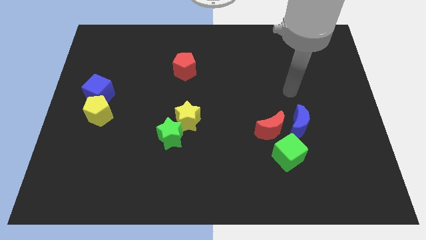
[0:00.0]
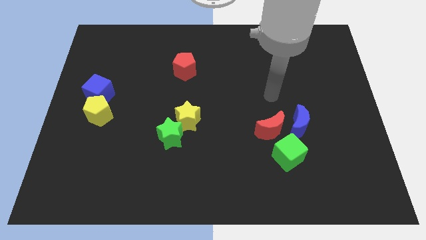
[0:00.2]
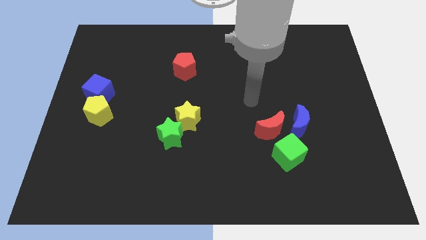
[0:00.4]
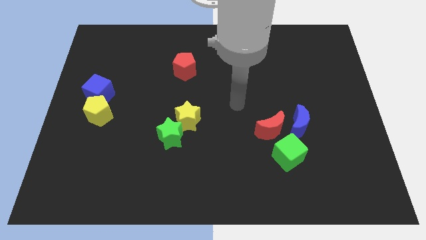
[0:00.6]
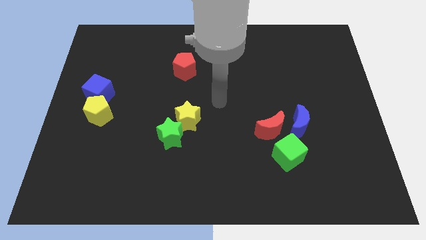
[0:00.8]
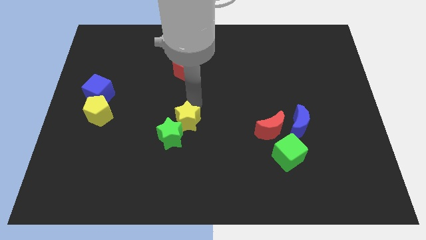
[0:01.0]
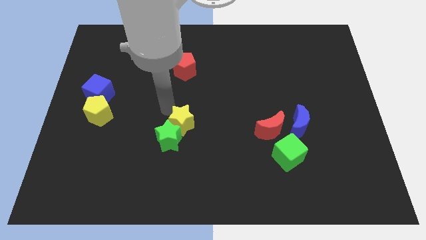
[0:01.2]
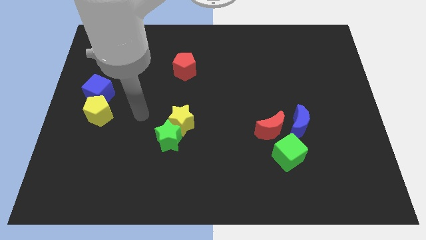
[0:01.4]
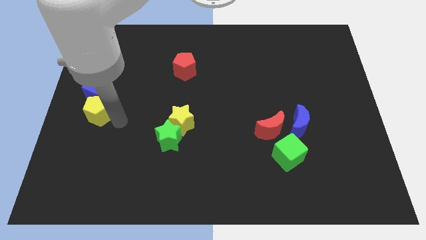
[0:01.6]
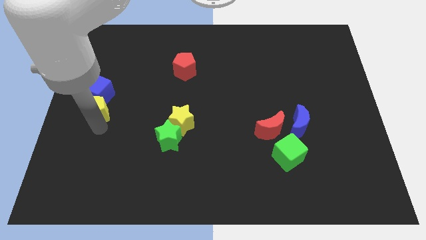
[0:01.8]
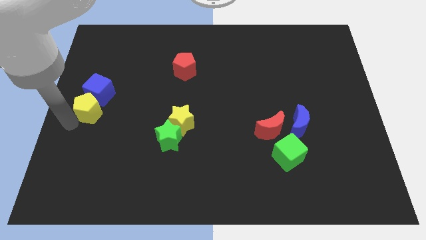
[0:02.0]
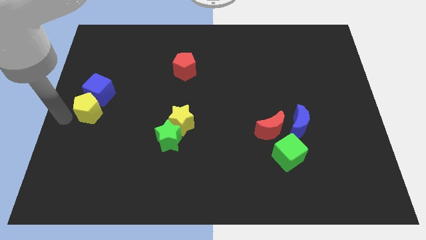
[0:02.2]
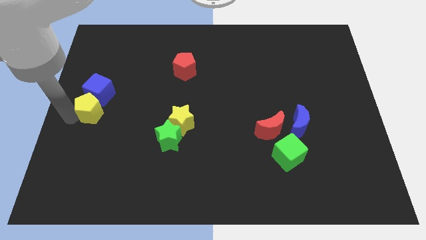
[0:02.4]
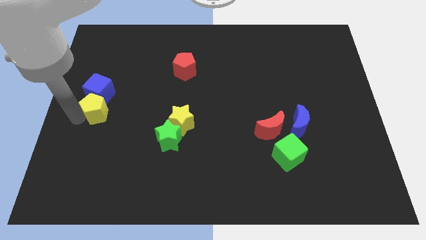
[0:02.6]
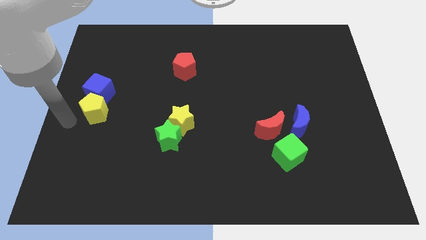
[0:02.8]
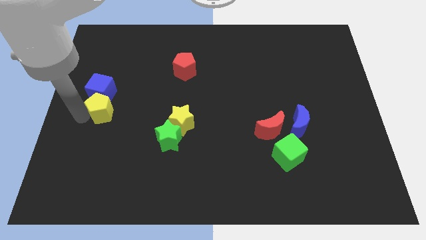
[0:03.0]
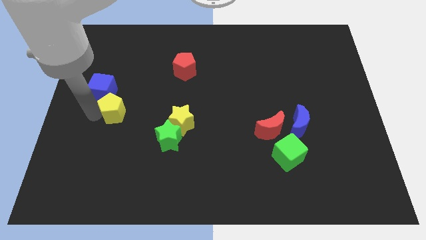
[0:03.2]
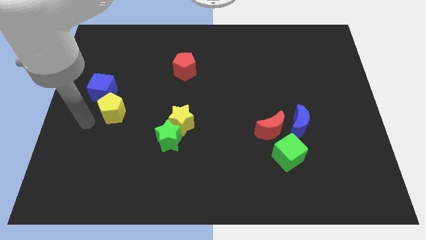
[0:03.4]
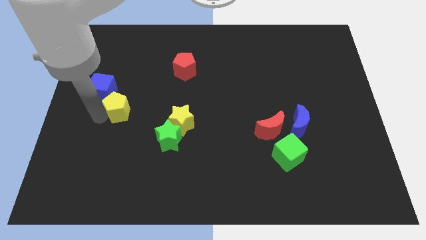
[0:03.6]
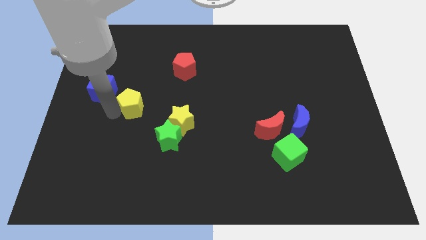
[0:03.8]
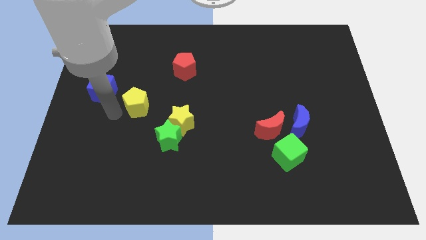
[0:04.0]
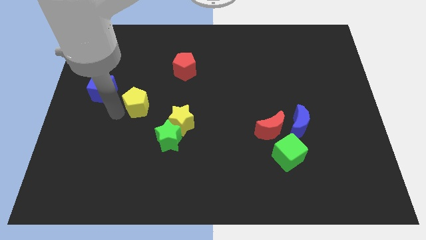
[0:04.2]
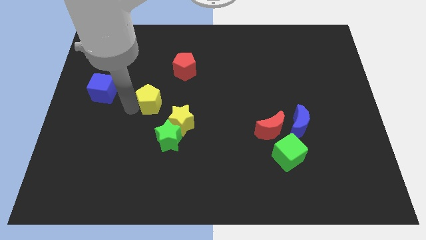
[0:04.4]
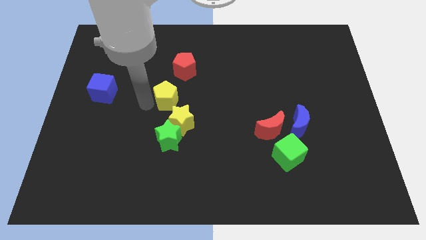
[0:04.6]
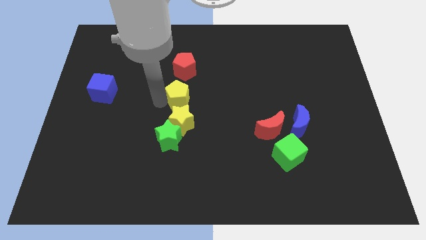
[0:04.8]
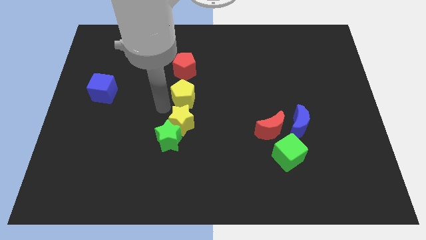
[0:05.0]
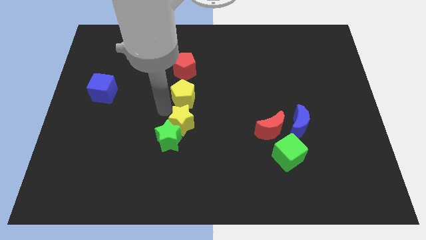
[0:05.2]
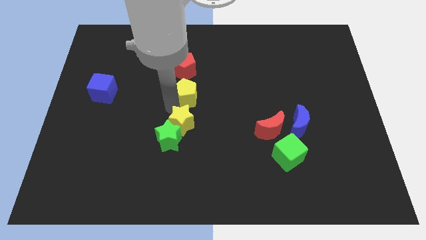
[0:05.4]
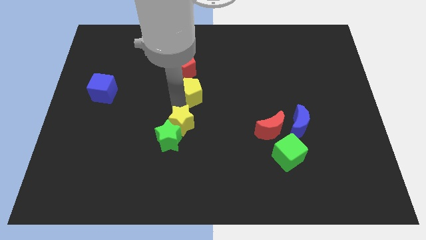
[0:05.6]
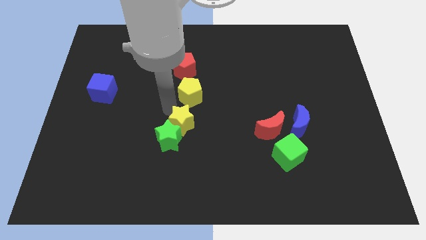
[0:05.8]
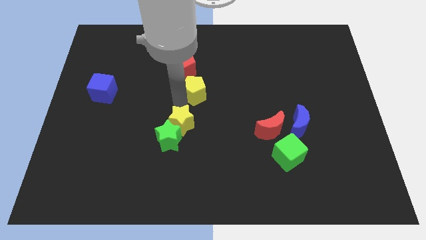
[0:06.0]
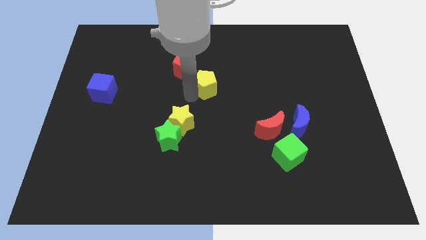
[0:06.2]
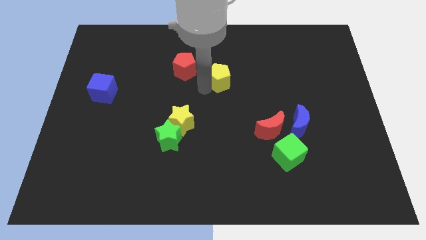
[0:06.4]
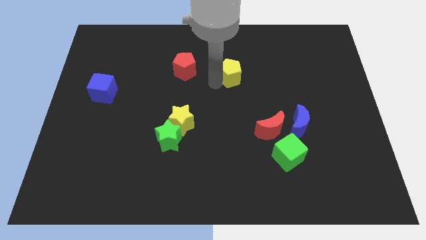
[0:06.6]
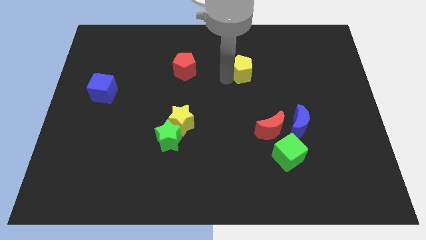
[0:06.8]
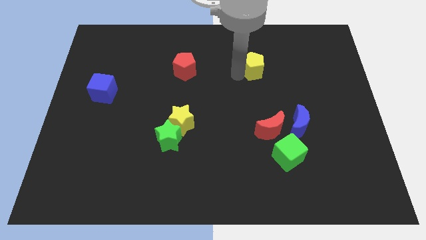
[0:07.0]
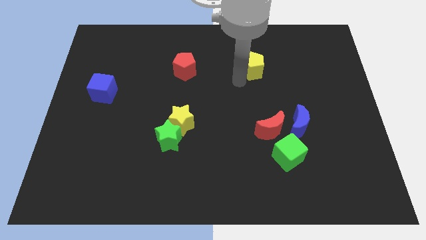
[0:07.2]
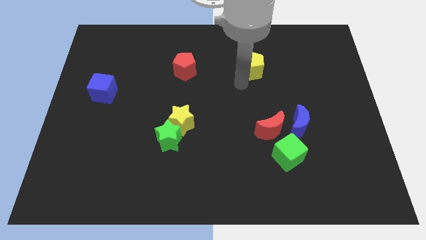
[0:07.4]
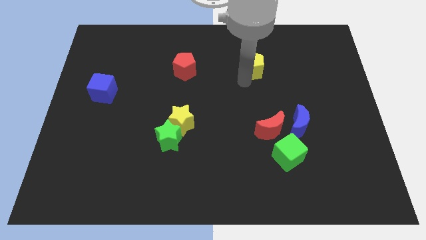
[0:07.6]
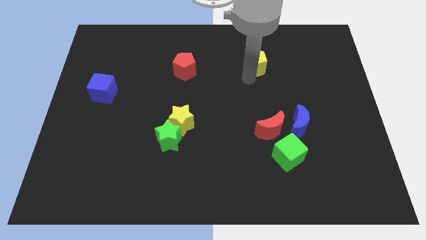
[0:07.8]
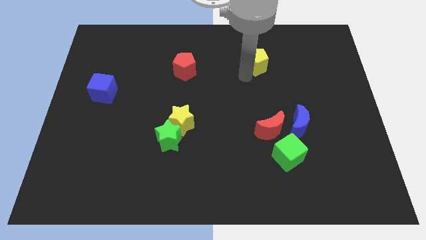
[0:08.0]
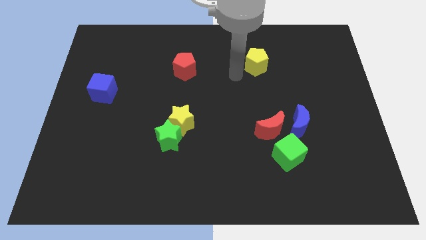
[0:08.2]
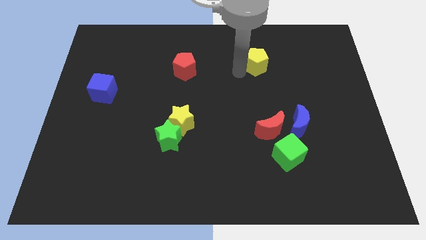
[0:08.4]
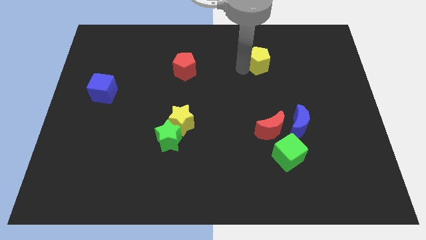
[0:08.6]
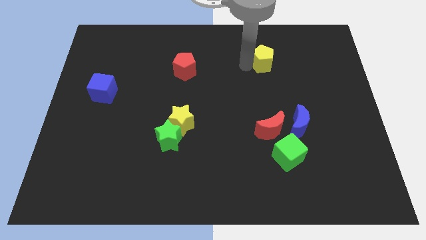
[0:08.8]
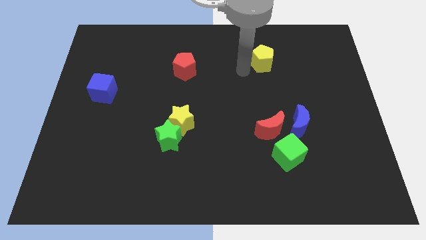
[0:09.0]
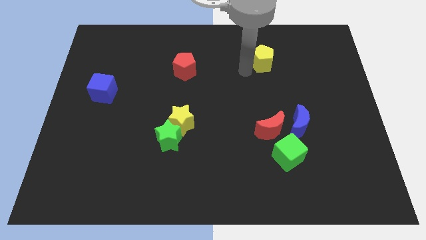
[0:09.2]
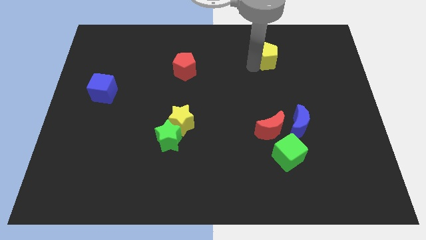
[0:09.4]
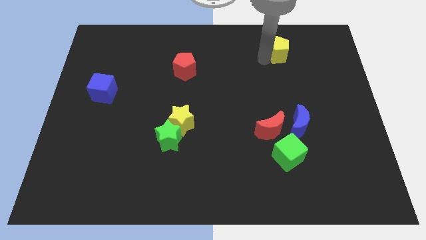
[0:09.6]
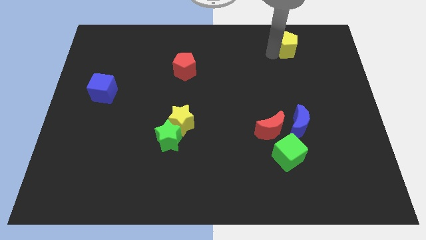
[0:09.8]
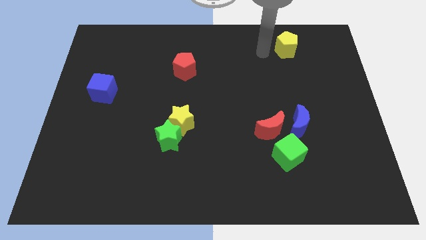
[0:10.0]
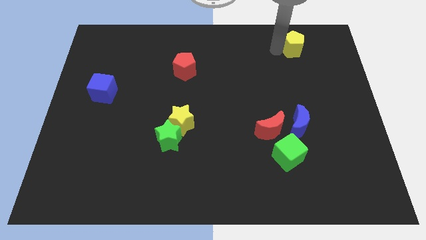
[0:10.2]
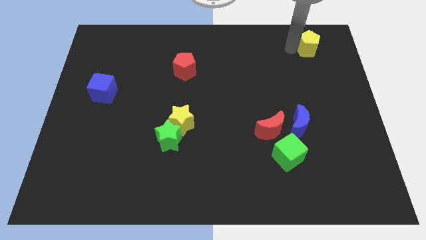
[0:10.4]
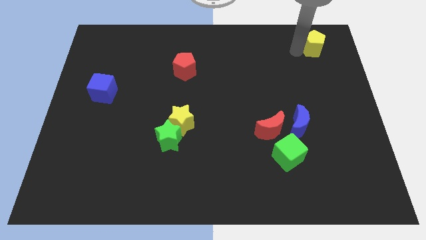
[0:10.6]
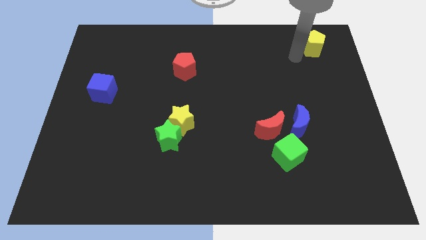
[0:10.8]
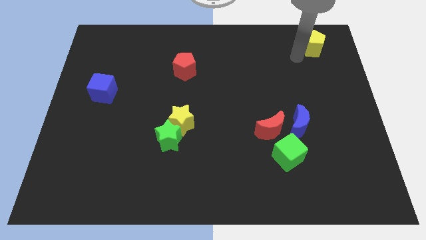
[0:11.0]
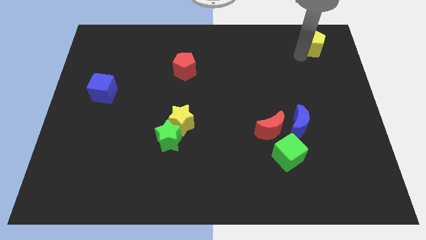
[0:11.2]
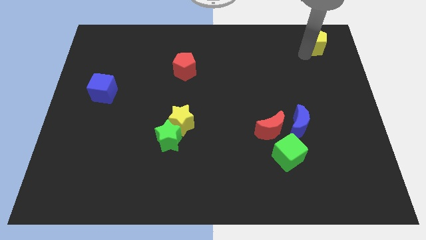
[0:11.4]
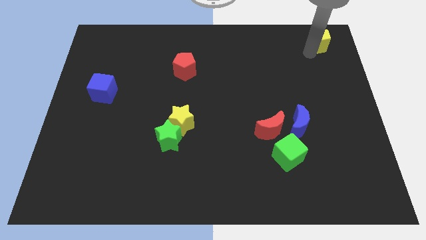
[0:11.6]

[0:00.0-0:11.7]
put the yellow pentagon to the upper right corner

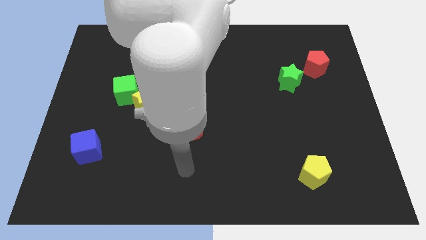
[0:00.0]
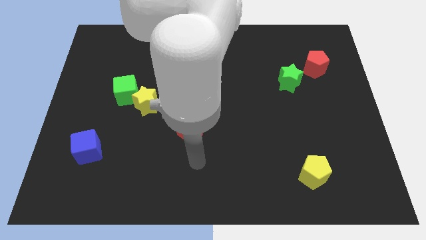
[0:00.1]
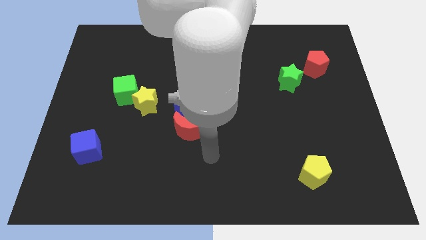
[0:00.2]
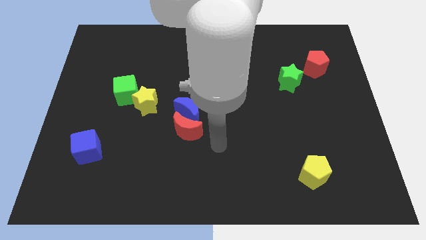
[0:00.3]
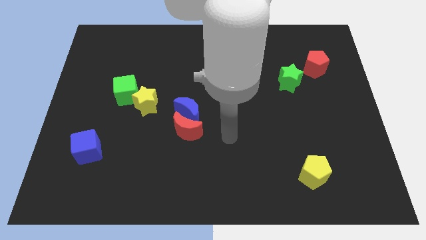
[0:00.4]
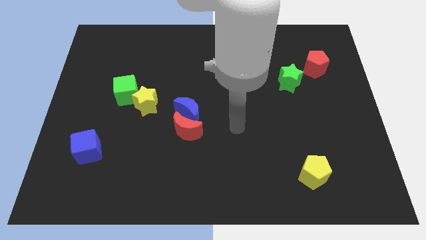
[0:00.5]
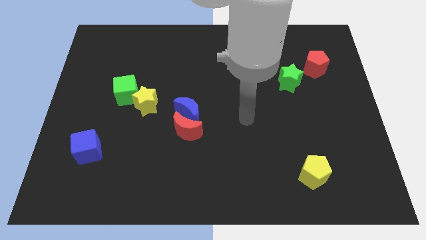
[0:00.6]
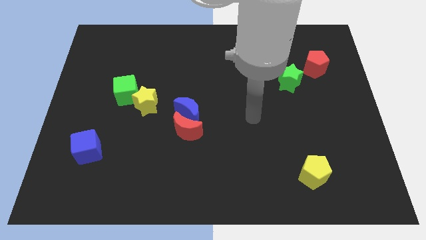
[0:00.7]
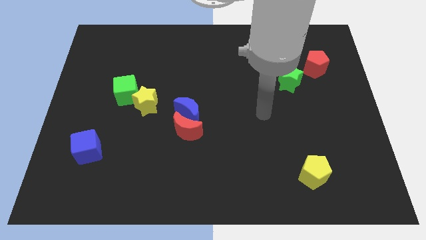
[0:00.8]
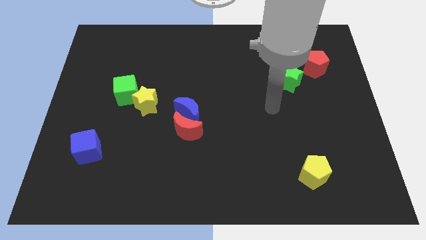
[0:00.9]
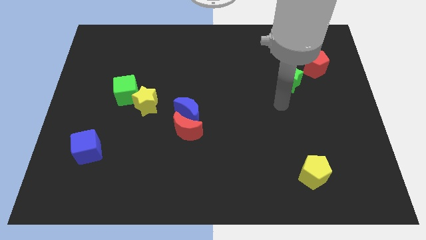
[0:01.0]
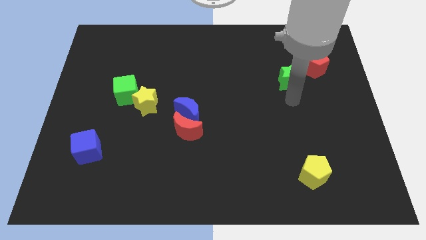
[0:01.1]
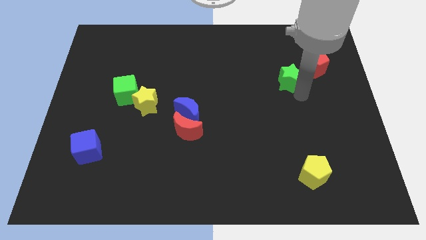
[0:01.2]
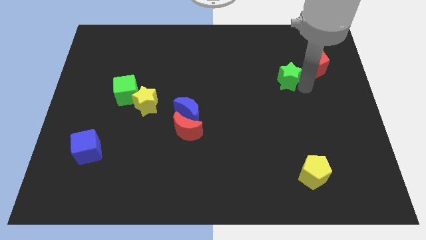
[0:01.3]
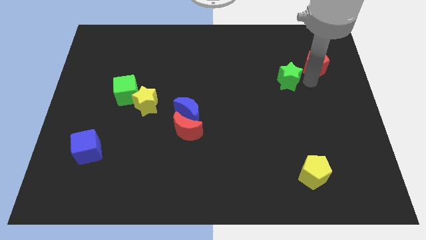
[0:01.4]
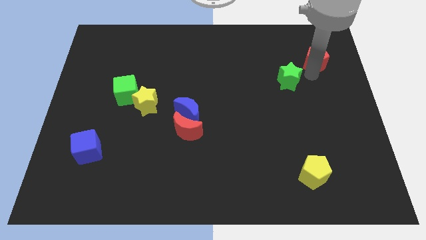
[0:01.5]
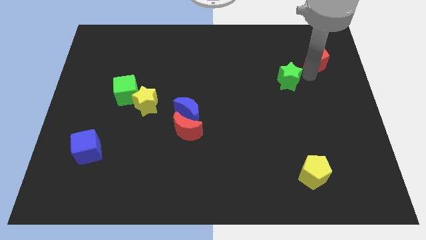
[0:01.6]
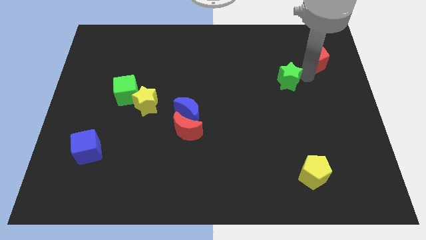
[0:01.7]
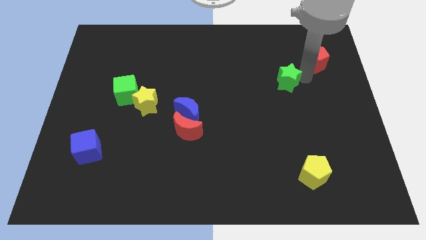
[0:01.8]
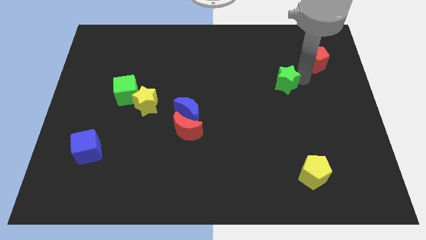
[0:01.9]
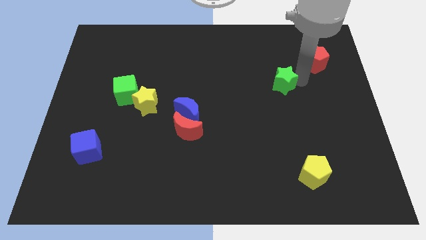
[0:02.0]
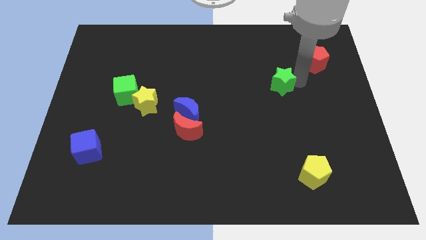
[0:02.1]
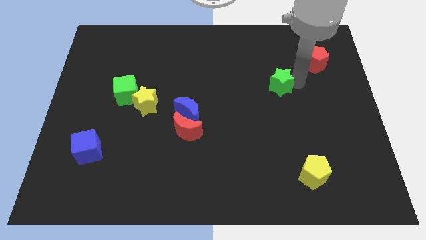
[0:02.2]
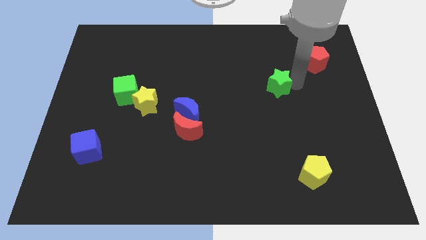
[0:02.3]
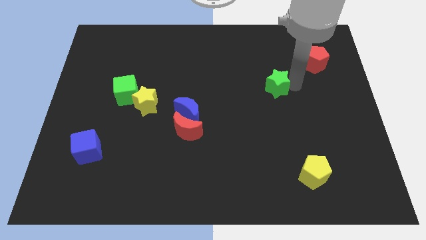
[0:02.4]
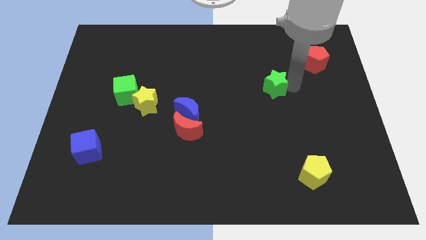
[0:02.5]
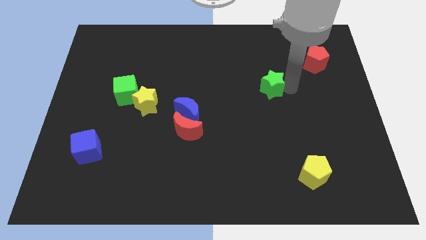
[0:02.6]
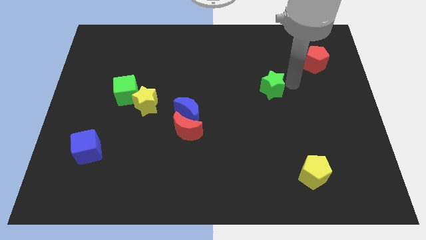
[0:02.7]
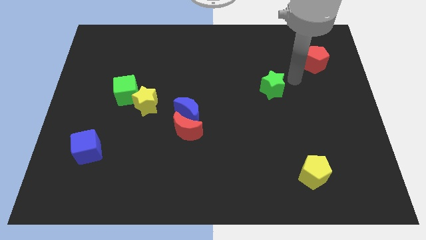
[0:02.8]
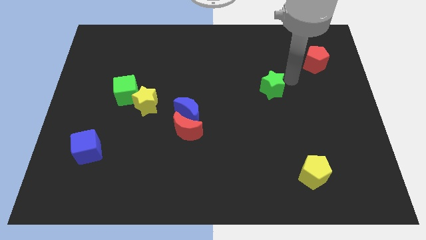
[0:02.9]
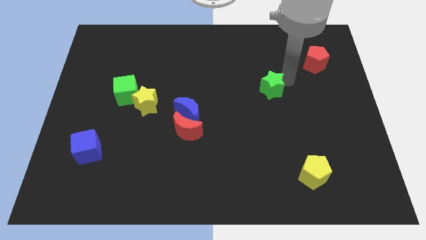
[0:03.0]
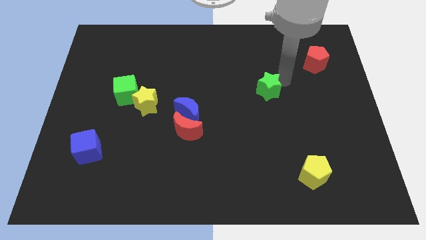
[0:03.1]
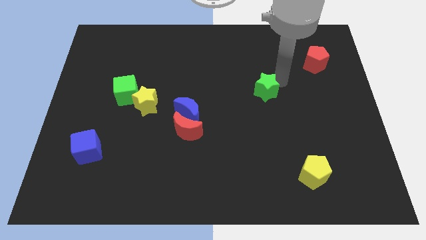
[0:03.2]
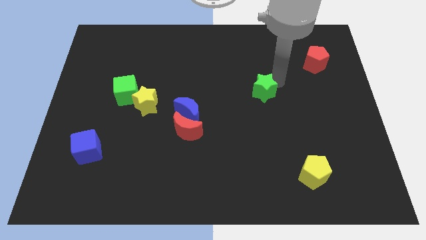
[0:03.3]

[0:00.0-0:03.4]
slide the green star to the middle
